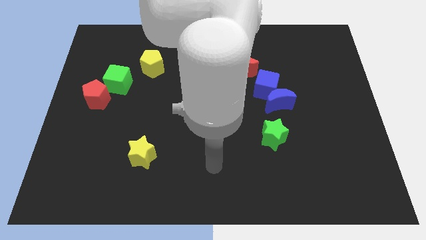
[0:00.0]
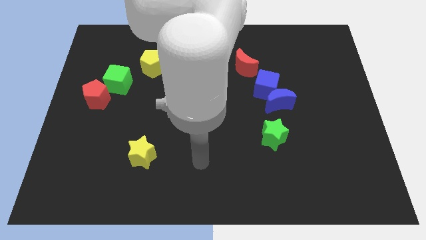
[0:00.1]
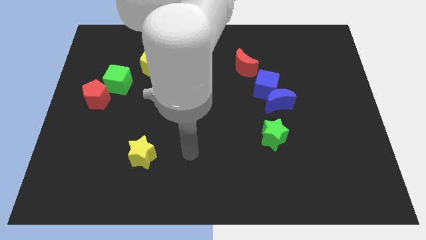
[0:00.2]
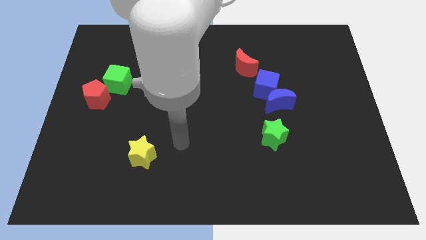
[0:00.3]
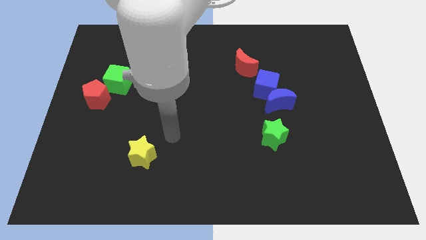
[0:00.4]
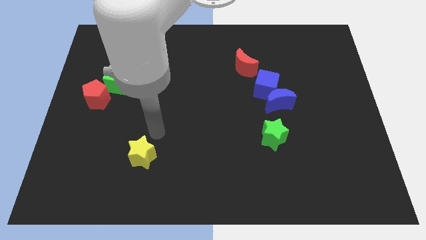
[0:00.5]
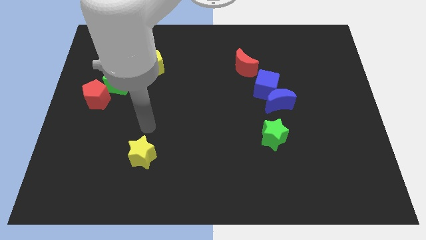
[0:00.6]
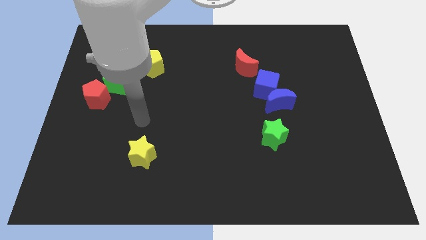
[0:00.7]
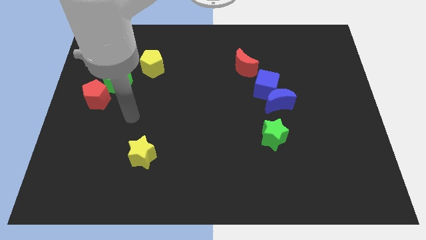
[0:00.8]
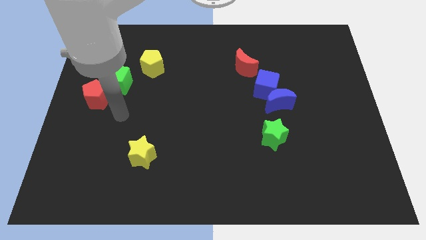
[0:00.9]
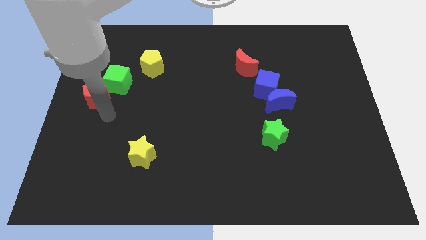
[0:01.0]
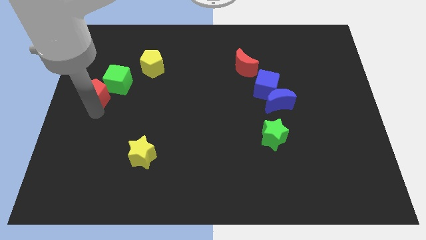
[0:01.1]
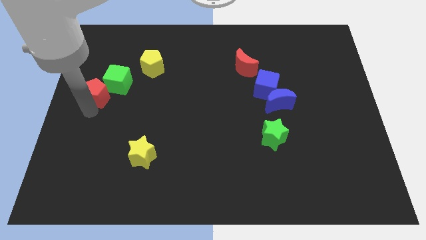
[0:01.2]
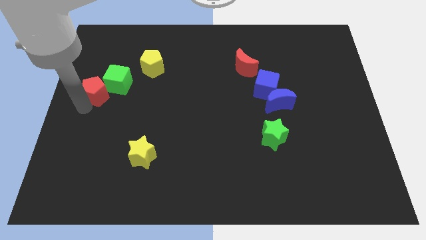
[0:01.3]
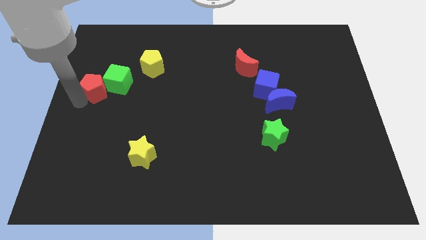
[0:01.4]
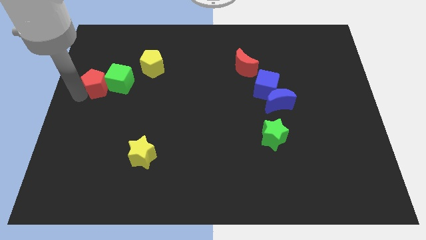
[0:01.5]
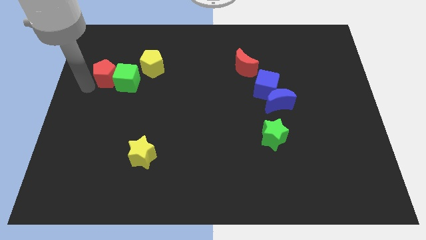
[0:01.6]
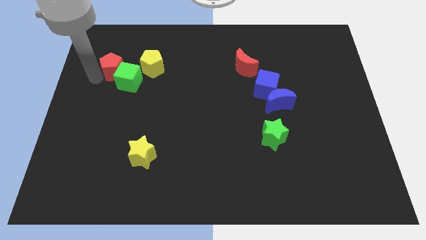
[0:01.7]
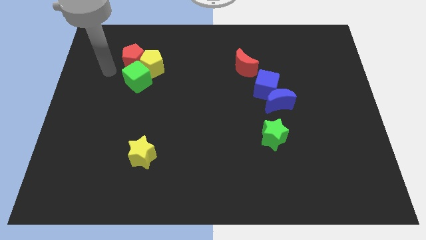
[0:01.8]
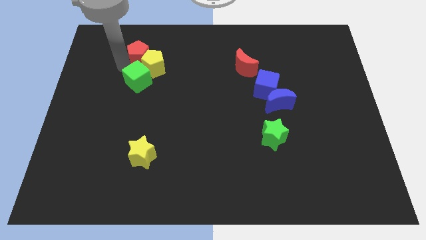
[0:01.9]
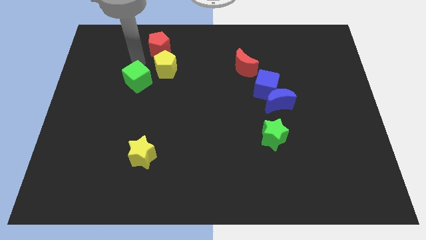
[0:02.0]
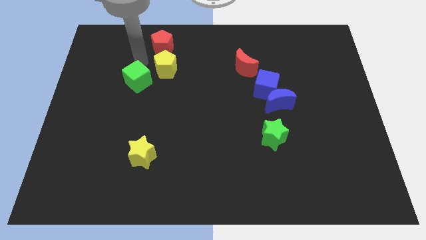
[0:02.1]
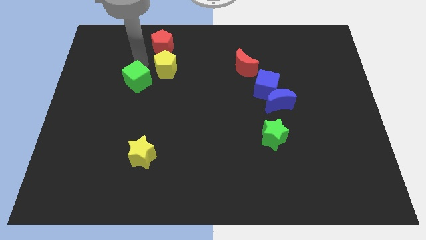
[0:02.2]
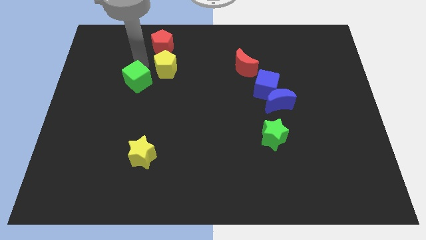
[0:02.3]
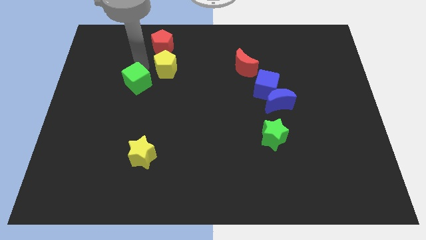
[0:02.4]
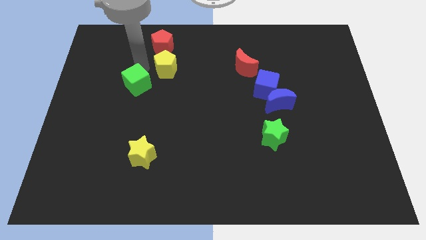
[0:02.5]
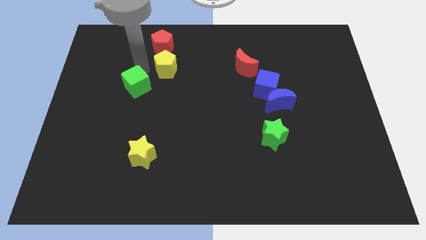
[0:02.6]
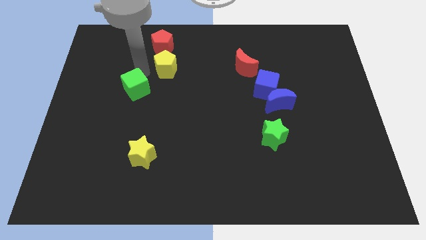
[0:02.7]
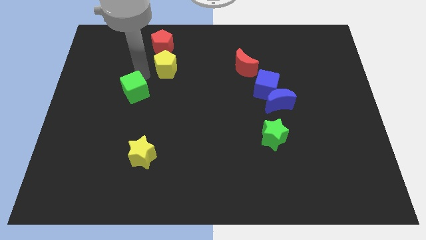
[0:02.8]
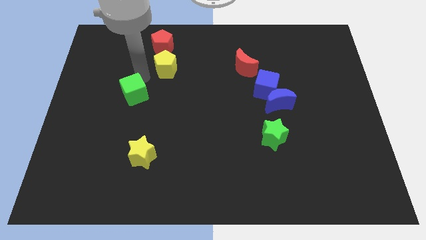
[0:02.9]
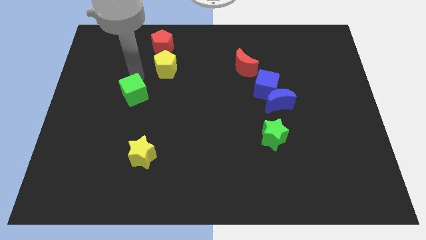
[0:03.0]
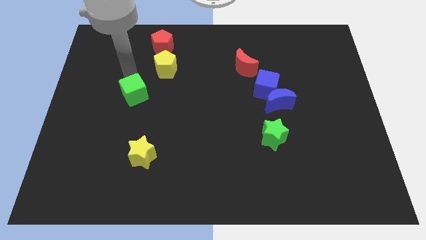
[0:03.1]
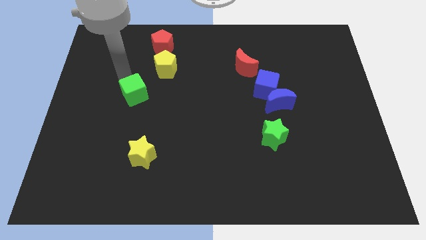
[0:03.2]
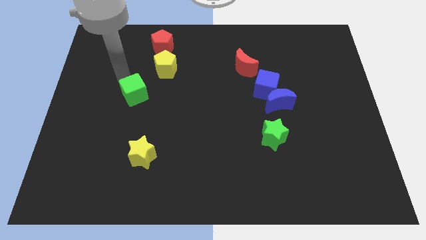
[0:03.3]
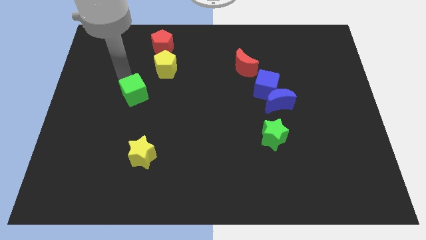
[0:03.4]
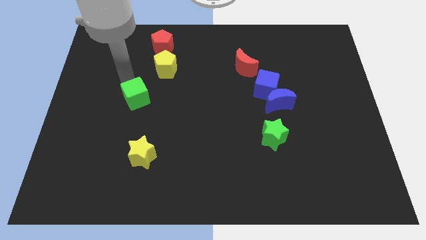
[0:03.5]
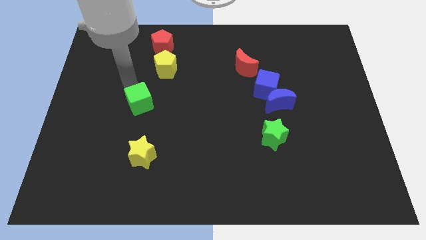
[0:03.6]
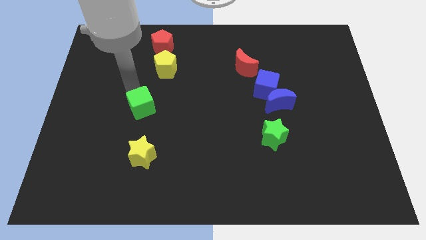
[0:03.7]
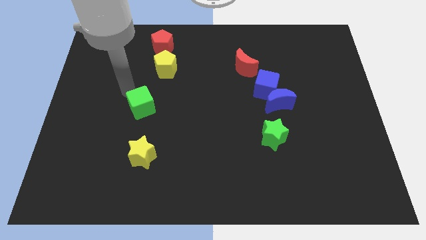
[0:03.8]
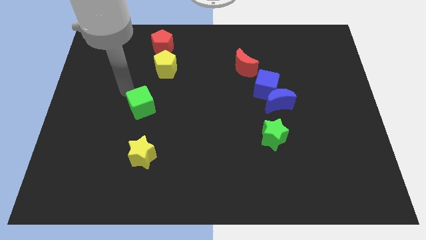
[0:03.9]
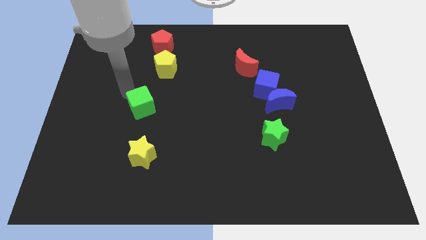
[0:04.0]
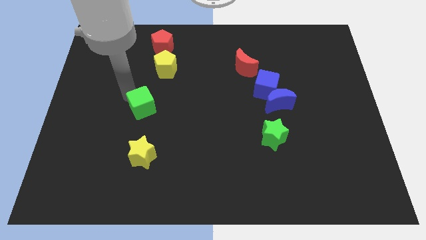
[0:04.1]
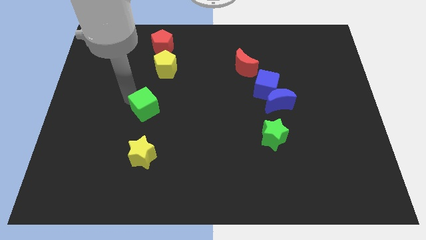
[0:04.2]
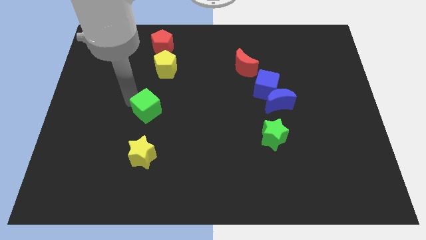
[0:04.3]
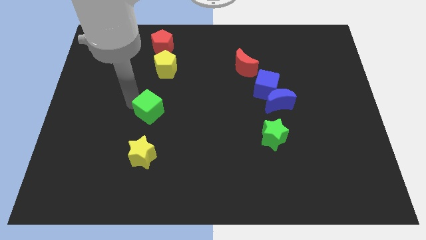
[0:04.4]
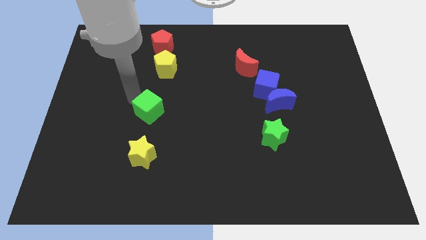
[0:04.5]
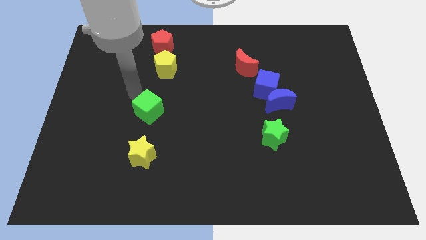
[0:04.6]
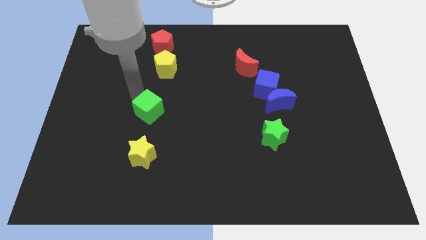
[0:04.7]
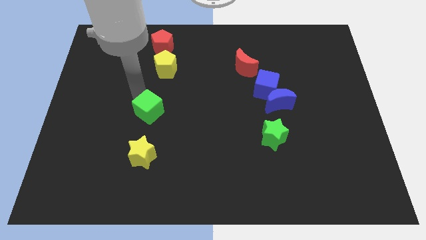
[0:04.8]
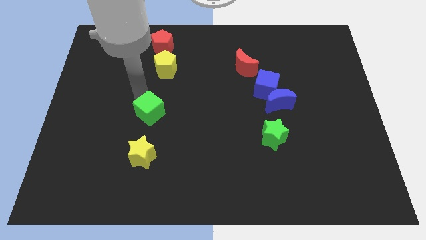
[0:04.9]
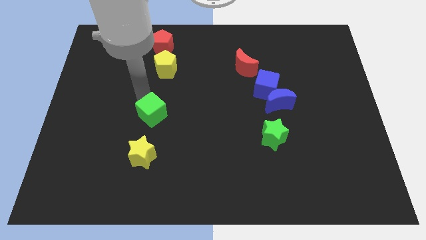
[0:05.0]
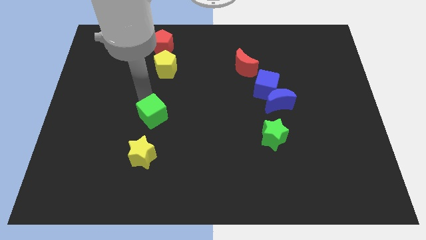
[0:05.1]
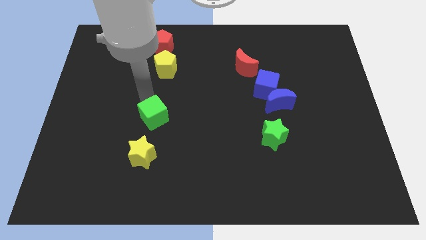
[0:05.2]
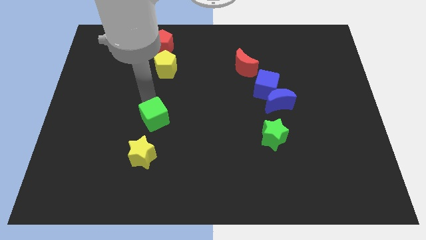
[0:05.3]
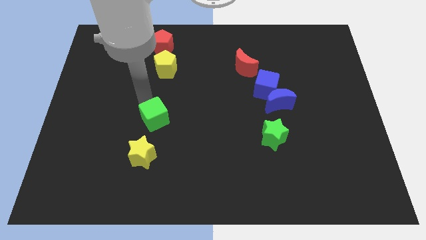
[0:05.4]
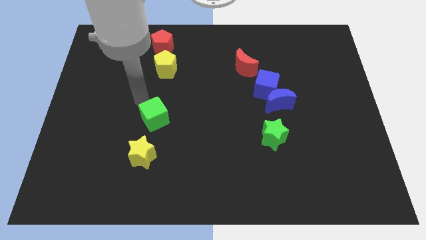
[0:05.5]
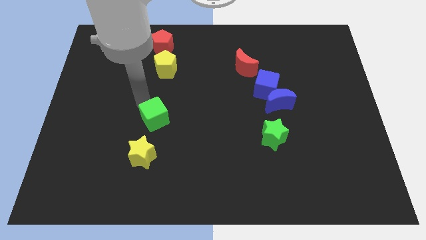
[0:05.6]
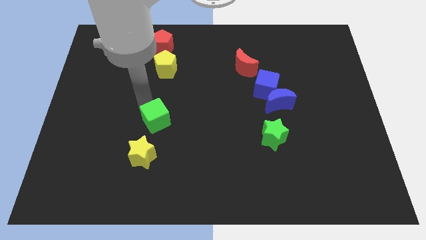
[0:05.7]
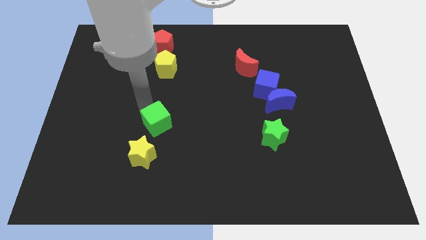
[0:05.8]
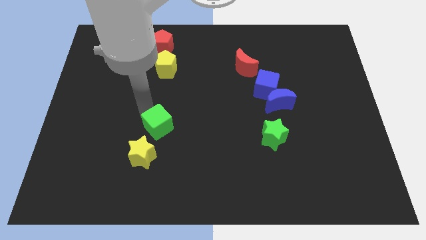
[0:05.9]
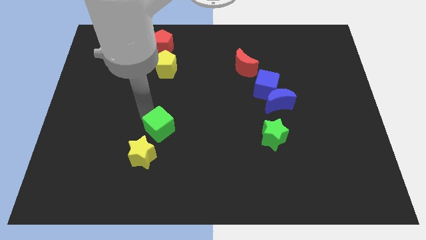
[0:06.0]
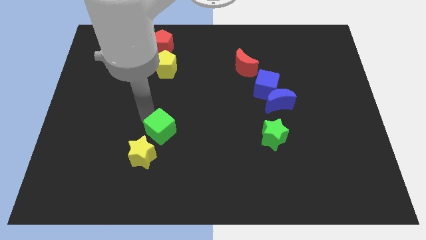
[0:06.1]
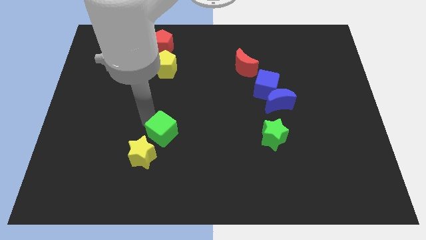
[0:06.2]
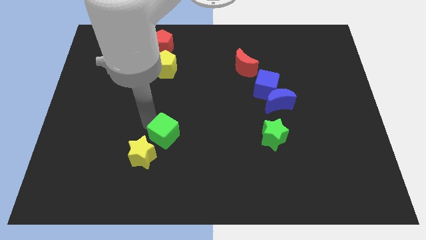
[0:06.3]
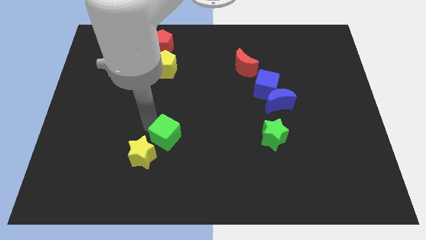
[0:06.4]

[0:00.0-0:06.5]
push the green cube down and then to the right

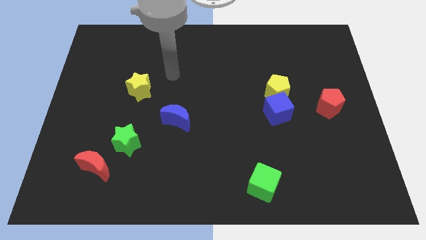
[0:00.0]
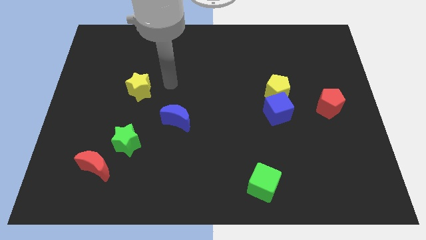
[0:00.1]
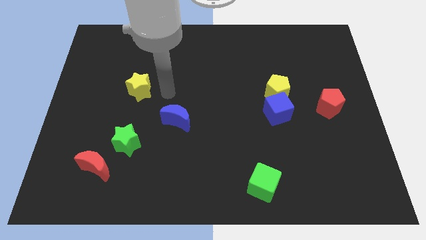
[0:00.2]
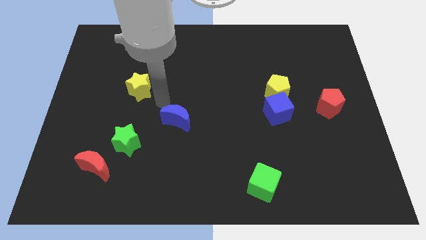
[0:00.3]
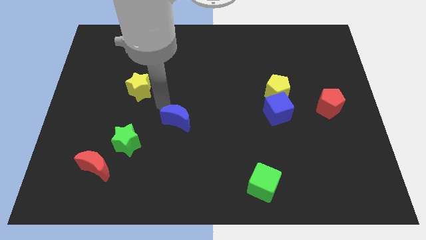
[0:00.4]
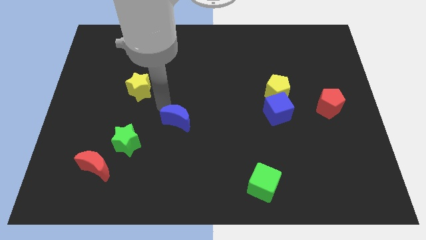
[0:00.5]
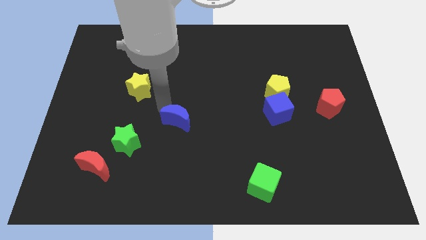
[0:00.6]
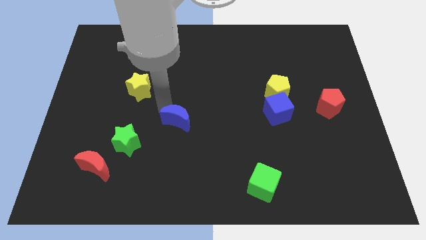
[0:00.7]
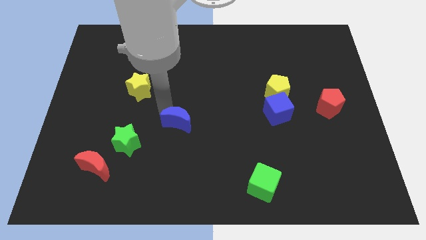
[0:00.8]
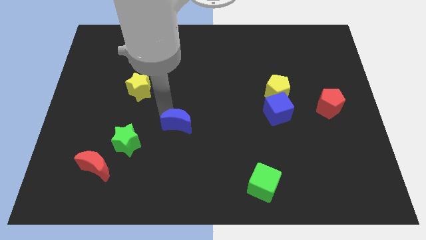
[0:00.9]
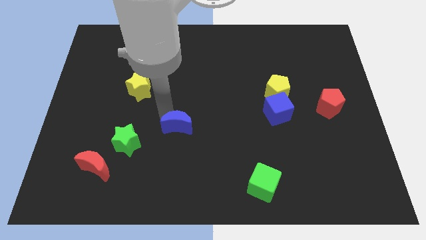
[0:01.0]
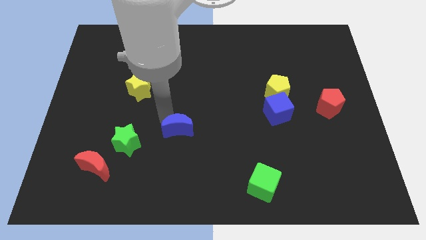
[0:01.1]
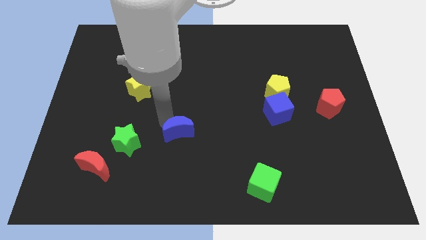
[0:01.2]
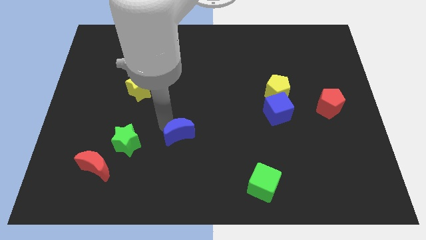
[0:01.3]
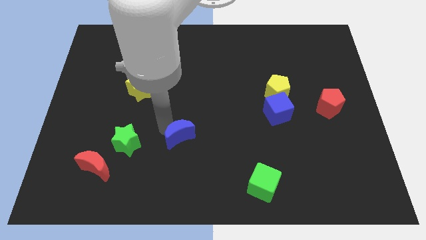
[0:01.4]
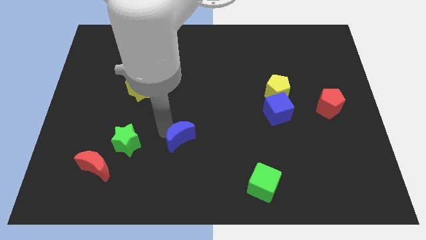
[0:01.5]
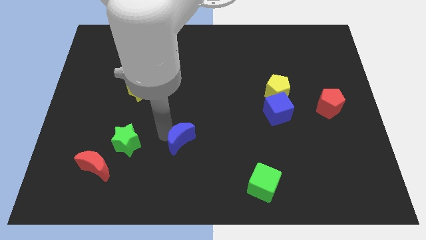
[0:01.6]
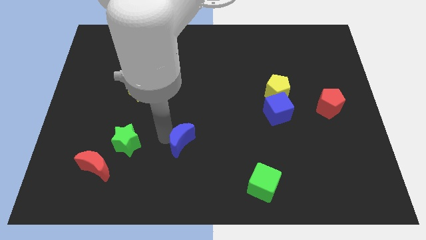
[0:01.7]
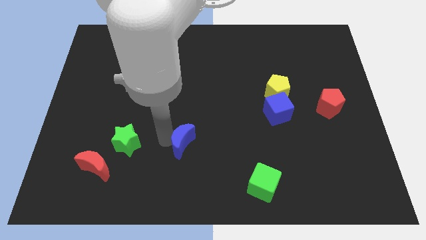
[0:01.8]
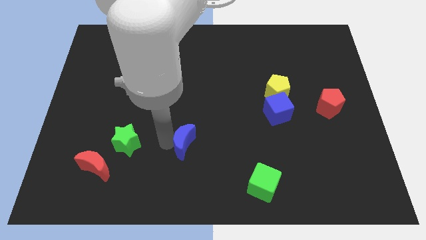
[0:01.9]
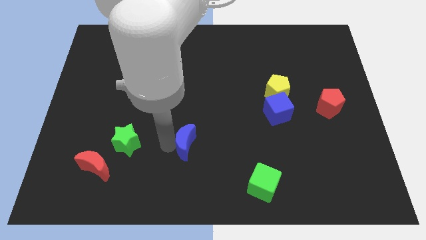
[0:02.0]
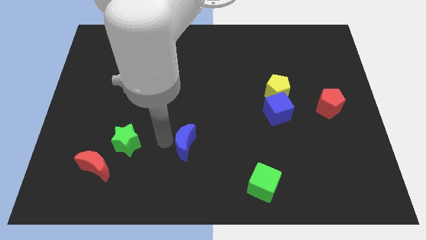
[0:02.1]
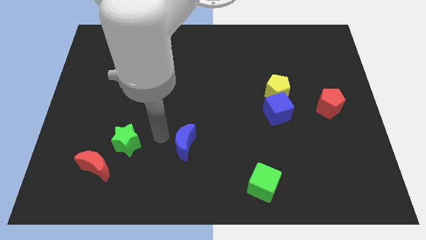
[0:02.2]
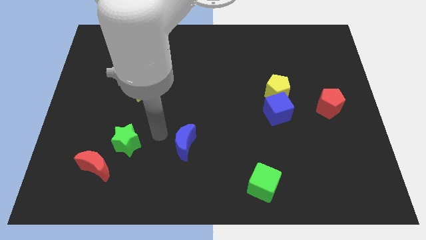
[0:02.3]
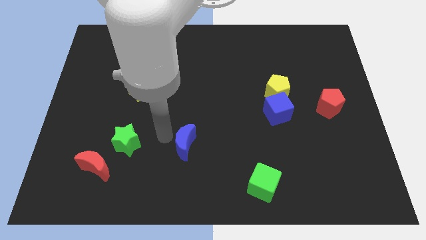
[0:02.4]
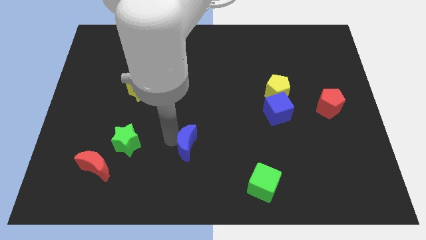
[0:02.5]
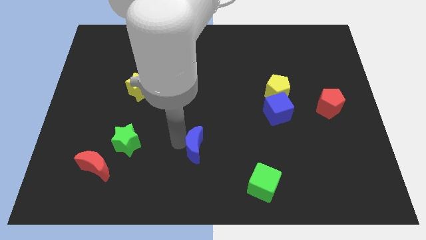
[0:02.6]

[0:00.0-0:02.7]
move the blue moon diagonally down and to the right a little bit
